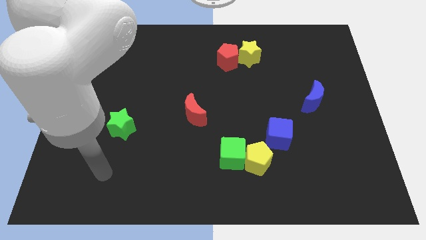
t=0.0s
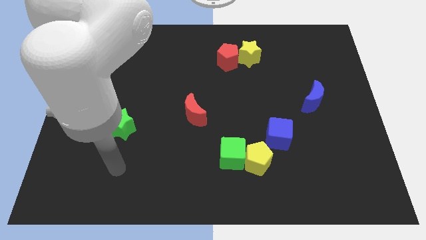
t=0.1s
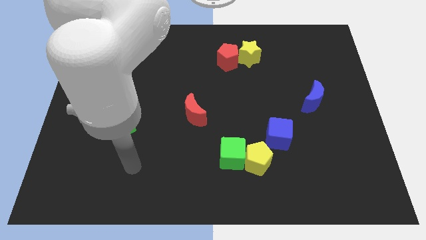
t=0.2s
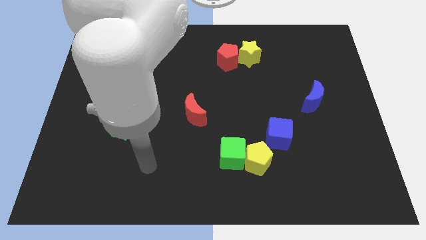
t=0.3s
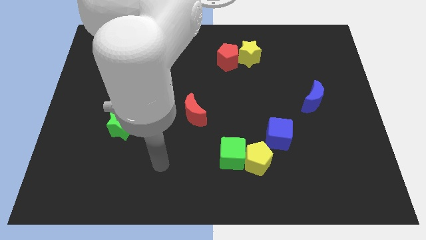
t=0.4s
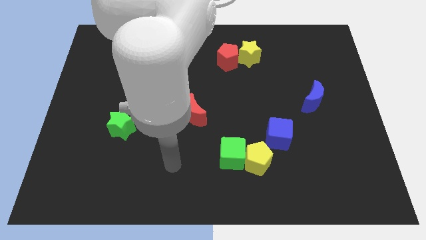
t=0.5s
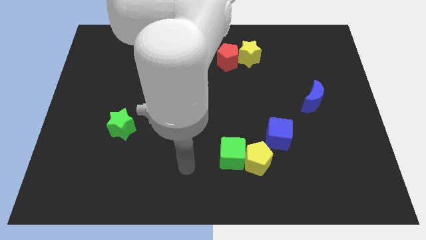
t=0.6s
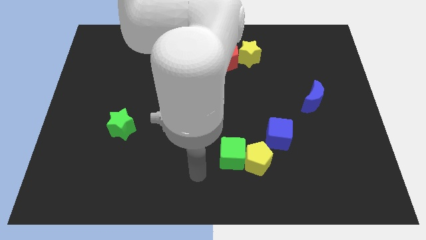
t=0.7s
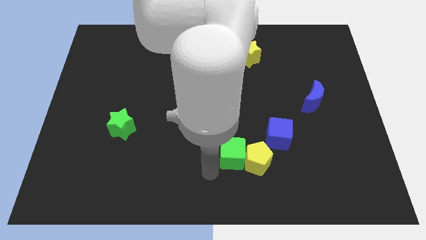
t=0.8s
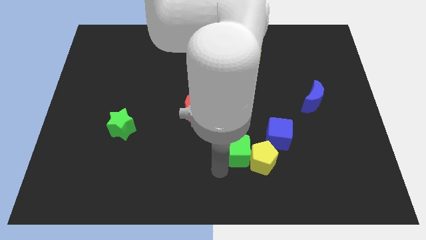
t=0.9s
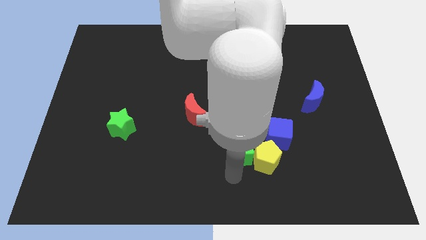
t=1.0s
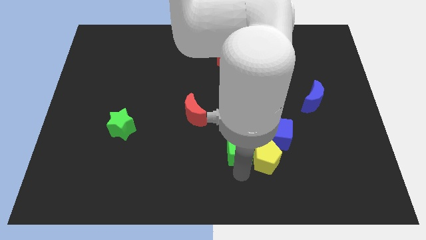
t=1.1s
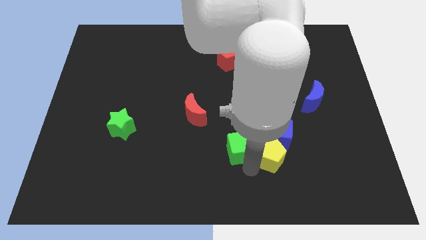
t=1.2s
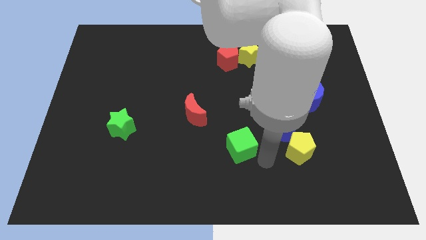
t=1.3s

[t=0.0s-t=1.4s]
pull the green cube apart from the yellow pentagon

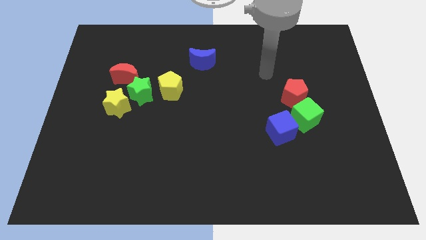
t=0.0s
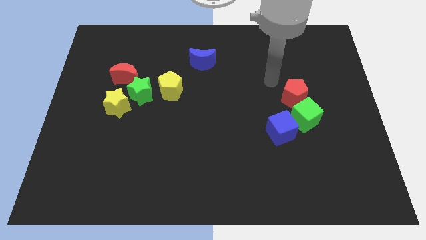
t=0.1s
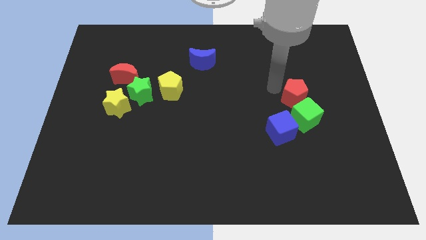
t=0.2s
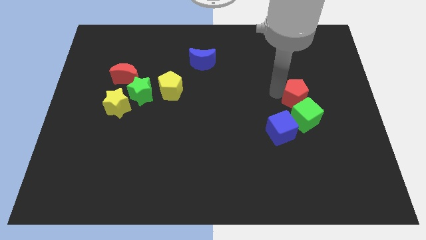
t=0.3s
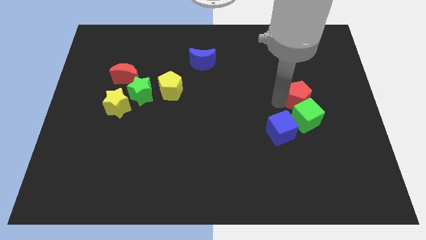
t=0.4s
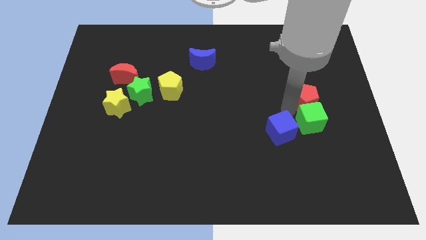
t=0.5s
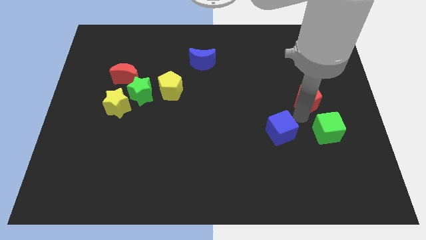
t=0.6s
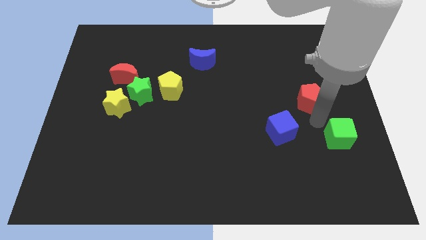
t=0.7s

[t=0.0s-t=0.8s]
move the red pentagon away from the green cube

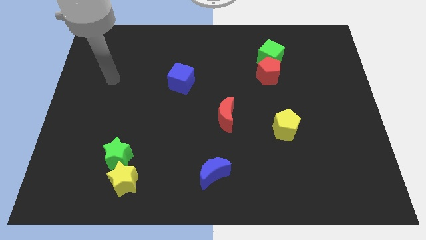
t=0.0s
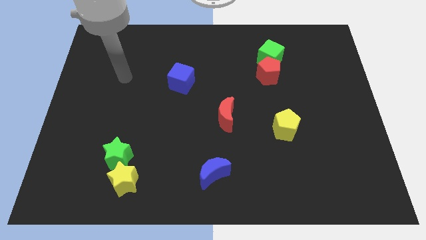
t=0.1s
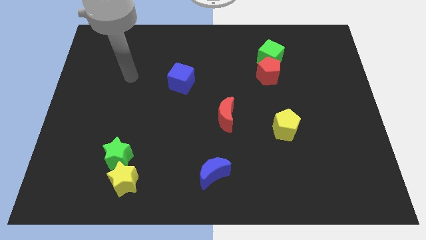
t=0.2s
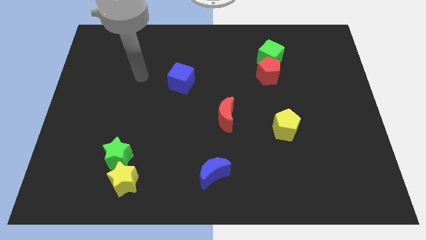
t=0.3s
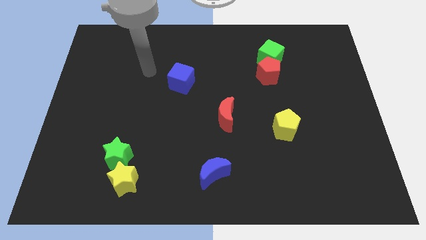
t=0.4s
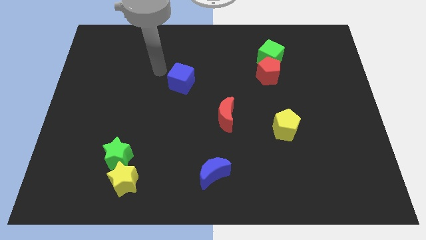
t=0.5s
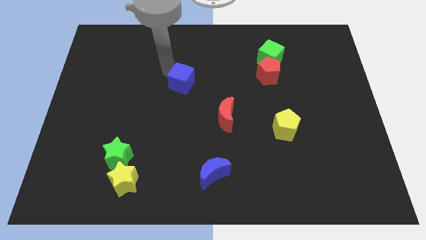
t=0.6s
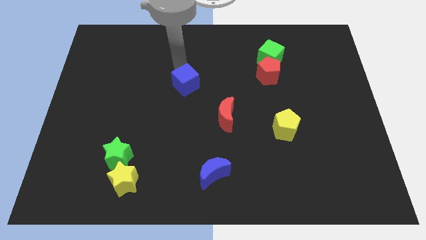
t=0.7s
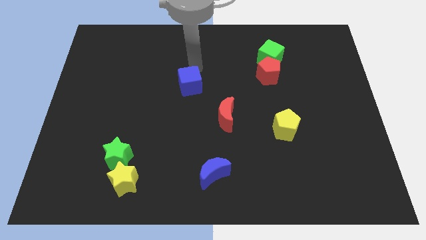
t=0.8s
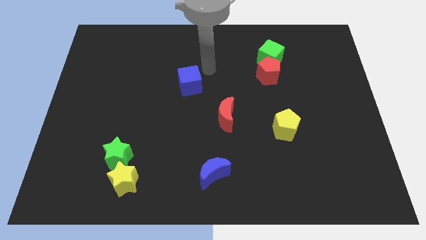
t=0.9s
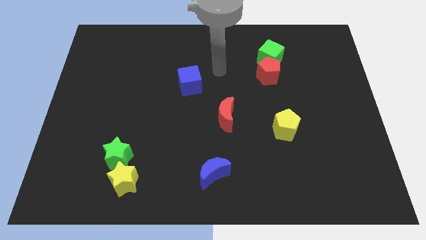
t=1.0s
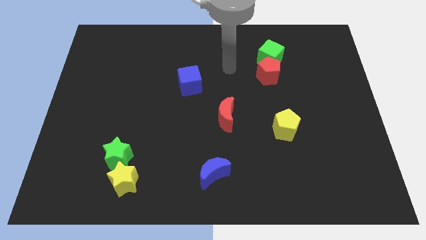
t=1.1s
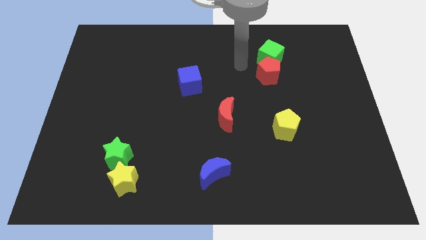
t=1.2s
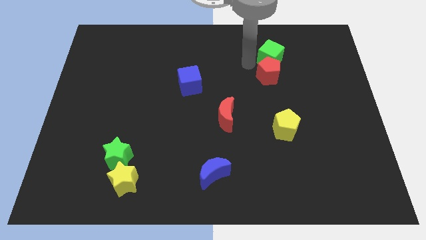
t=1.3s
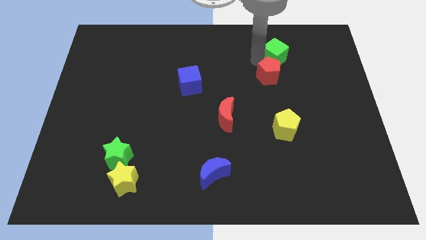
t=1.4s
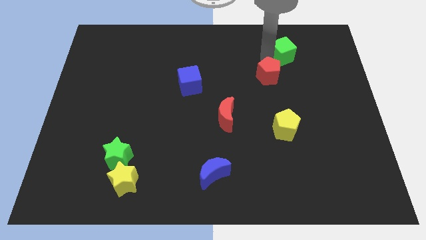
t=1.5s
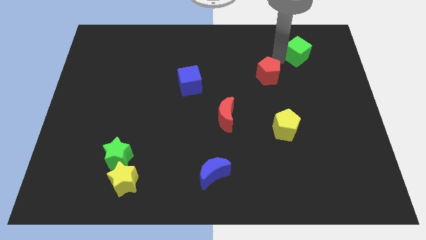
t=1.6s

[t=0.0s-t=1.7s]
separate the red pentagon from the green cube

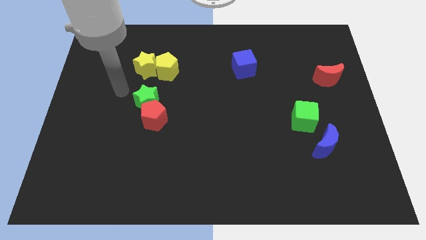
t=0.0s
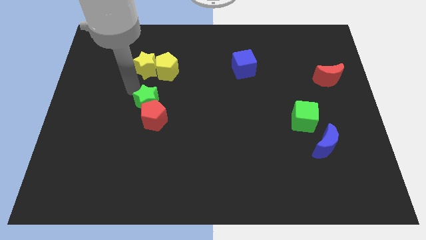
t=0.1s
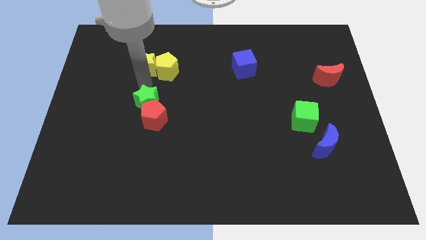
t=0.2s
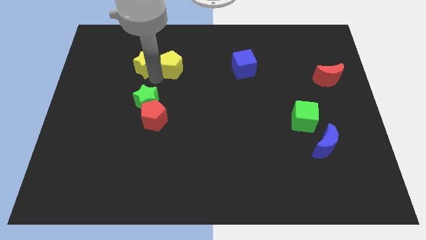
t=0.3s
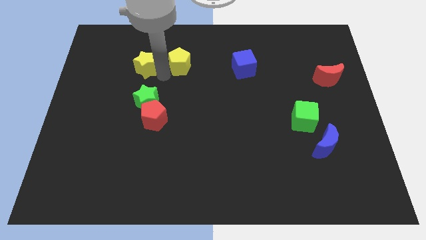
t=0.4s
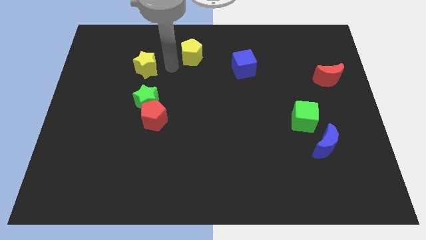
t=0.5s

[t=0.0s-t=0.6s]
separate the yellow star from the yellow pentagon

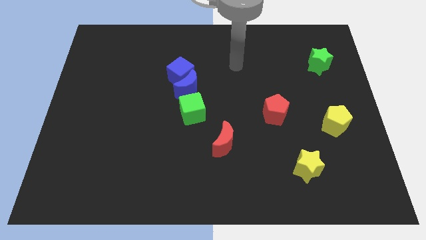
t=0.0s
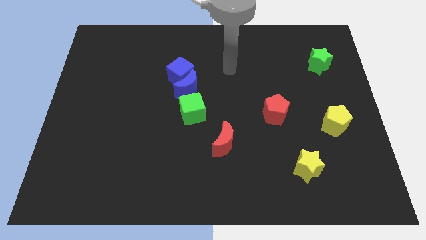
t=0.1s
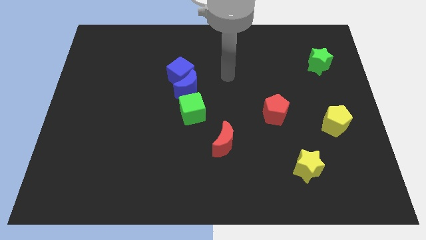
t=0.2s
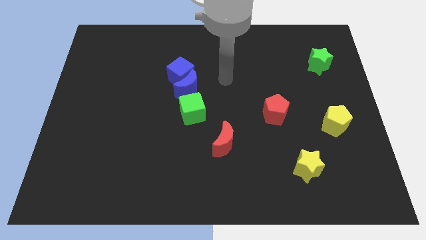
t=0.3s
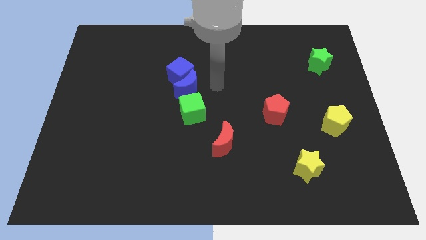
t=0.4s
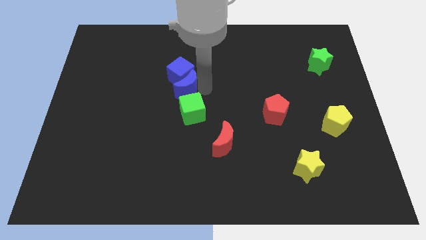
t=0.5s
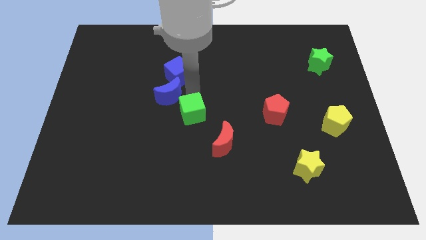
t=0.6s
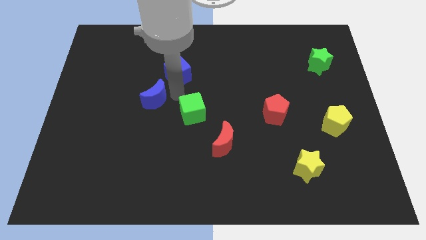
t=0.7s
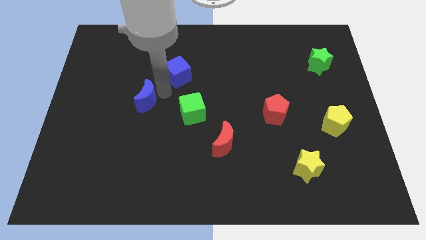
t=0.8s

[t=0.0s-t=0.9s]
move the blue cube away from the blue moon

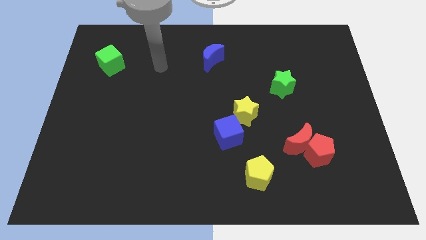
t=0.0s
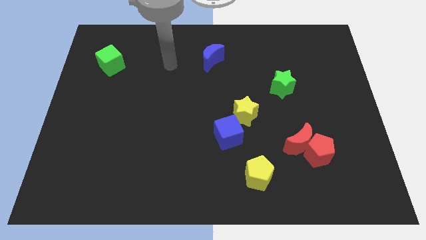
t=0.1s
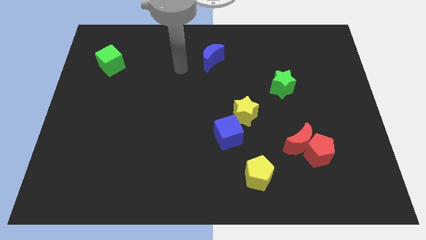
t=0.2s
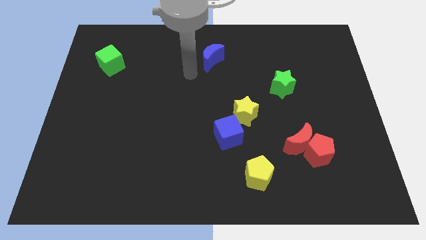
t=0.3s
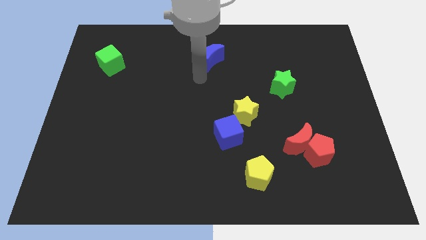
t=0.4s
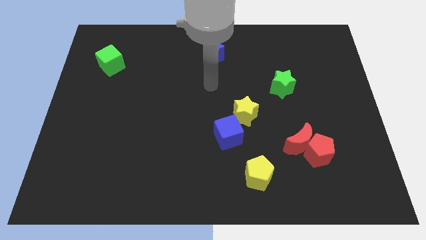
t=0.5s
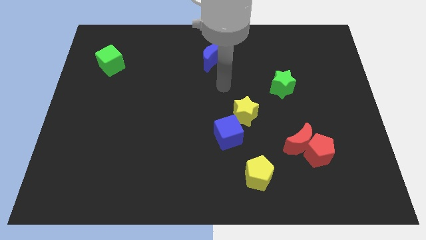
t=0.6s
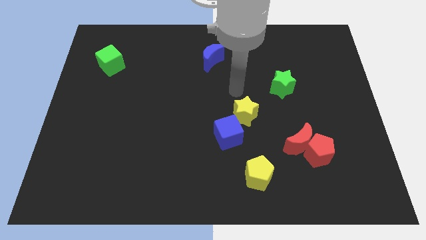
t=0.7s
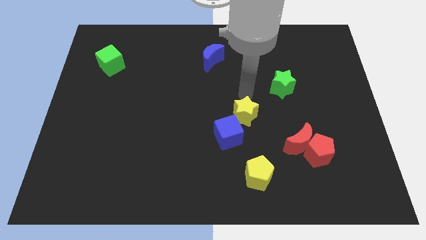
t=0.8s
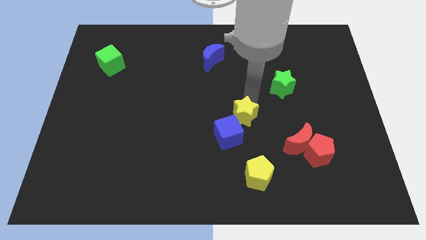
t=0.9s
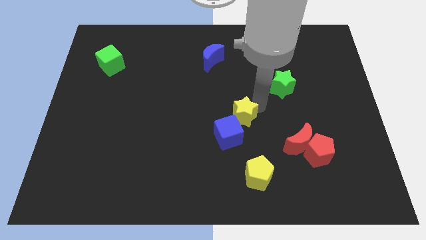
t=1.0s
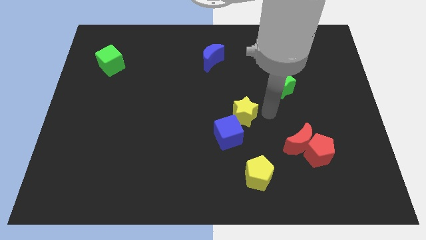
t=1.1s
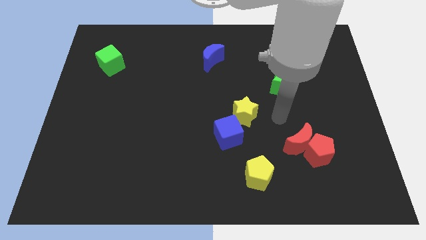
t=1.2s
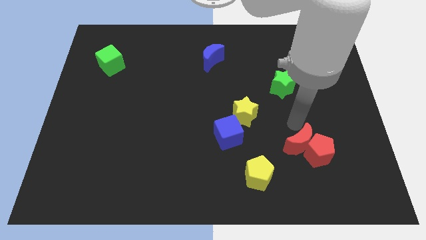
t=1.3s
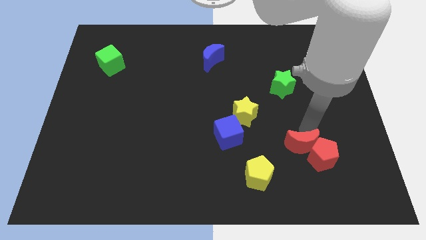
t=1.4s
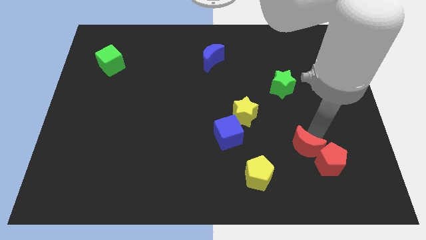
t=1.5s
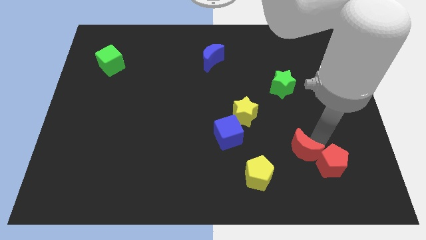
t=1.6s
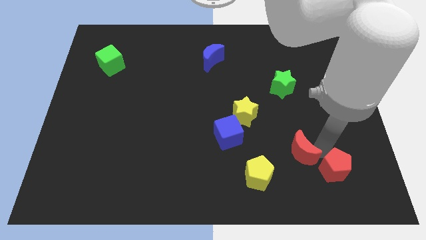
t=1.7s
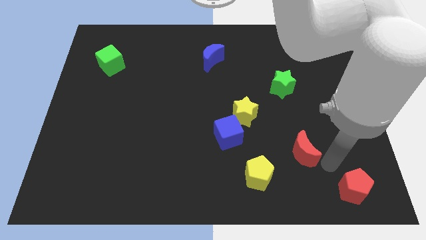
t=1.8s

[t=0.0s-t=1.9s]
move the red moon away from the red pentagon

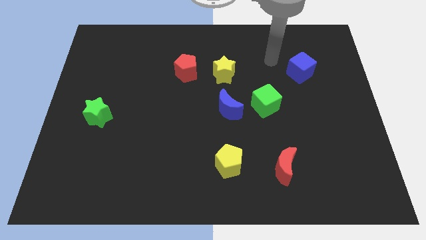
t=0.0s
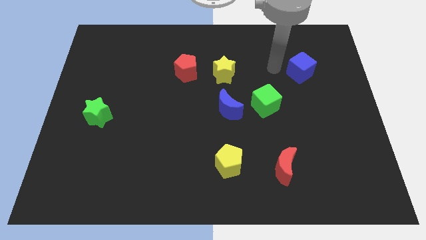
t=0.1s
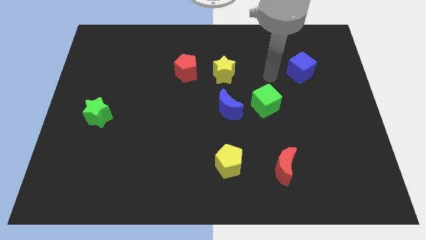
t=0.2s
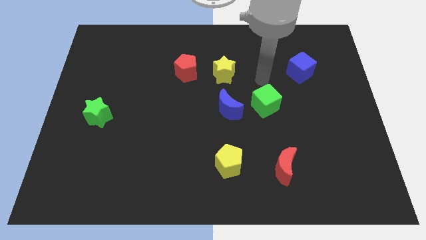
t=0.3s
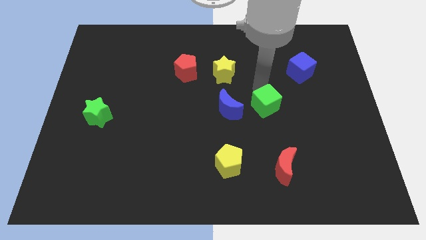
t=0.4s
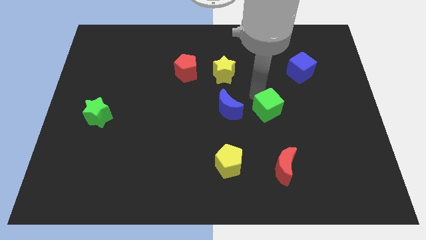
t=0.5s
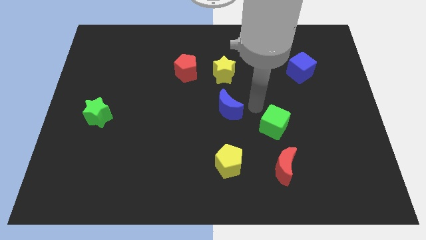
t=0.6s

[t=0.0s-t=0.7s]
separate the blue moon from the green cube

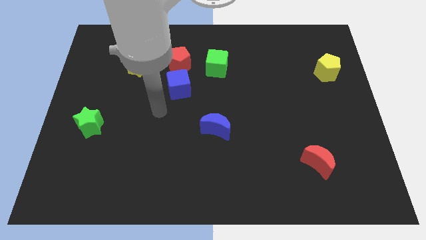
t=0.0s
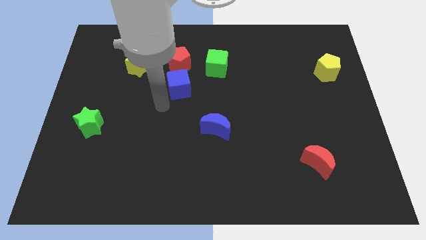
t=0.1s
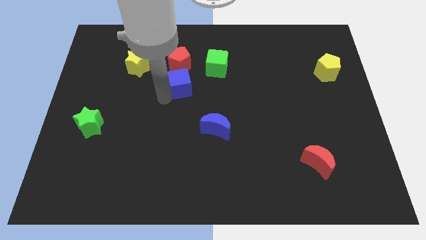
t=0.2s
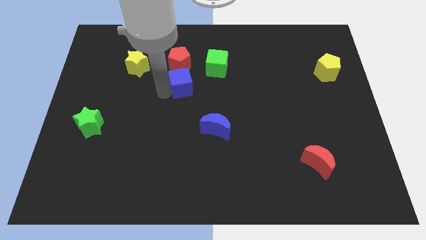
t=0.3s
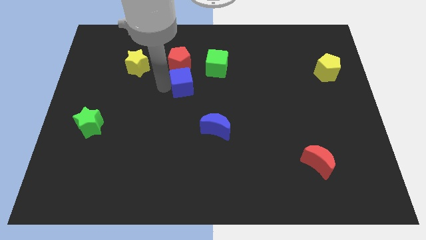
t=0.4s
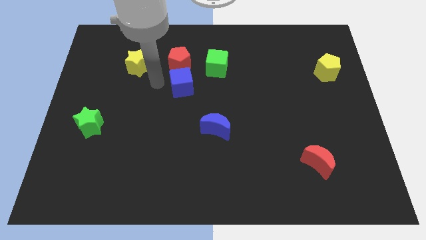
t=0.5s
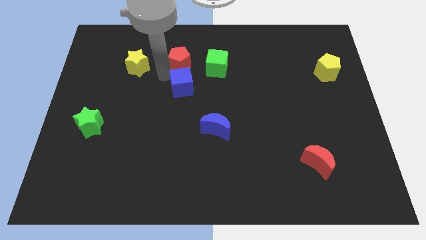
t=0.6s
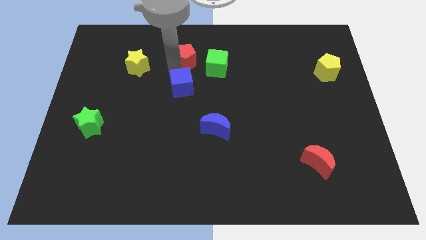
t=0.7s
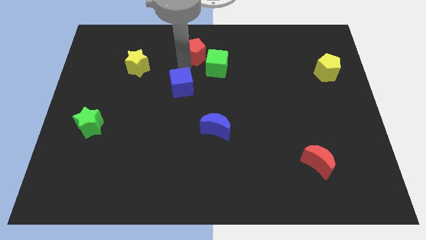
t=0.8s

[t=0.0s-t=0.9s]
pull the blue cube apart from the red pentagon

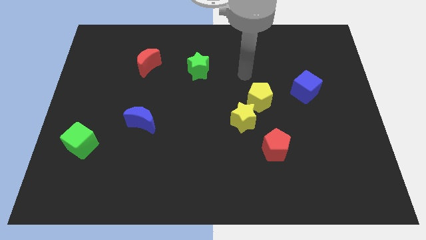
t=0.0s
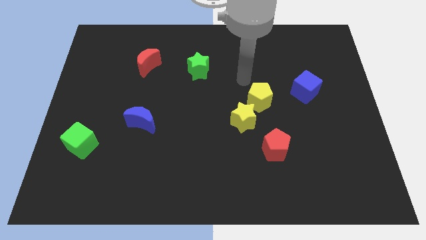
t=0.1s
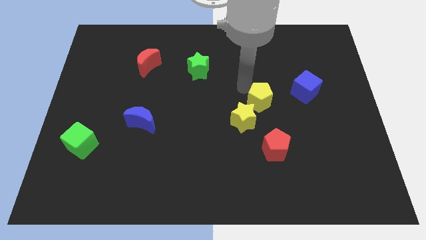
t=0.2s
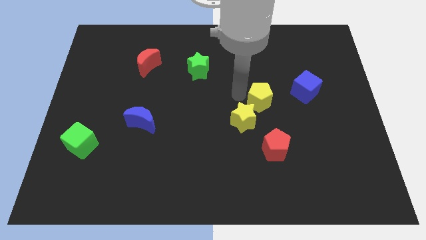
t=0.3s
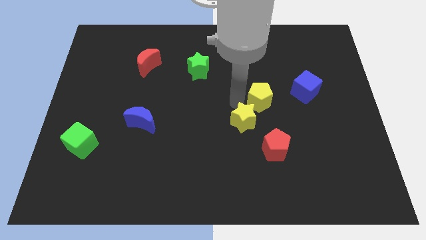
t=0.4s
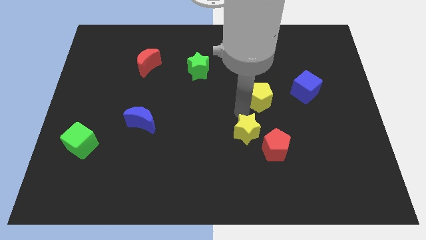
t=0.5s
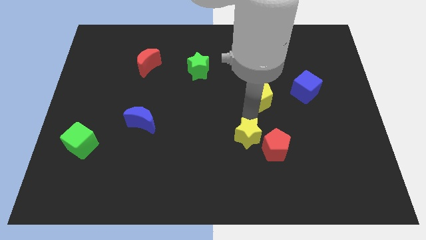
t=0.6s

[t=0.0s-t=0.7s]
pull the yellow pentagon apart from the yellow star
